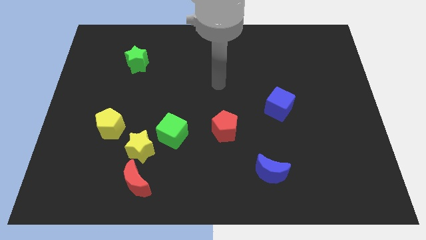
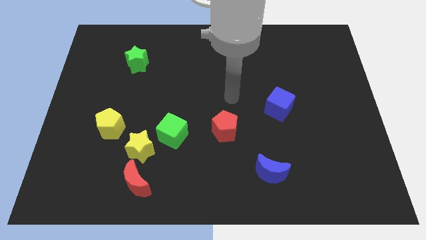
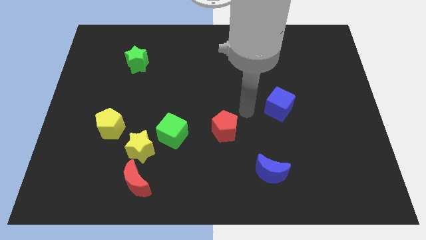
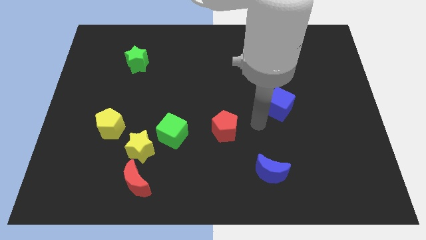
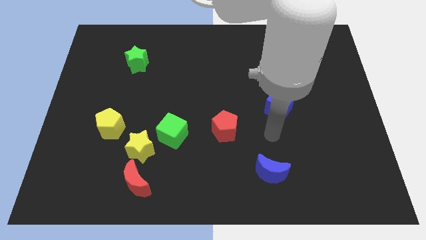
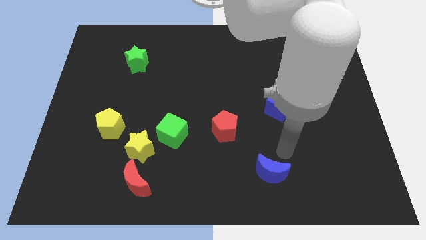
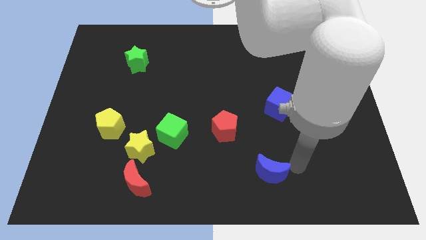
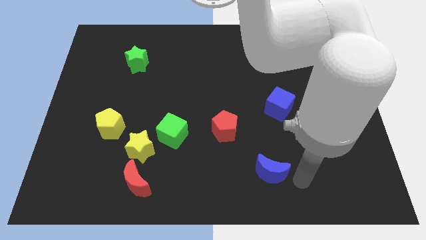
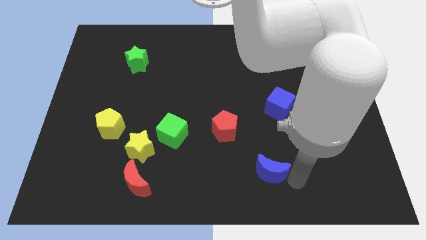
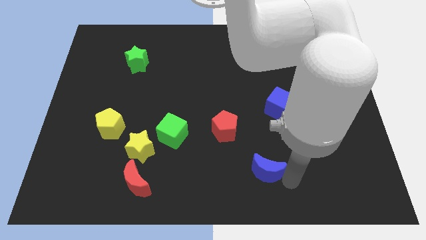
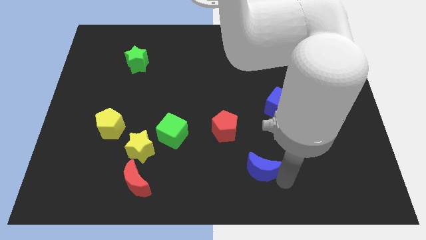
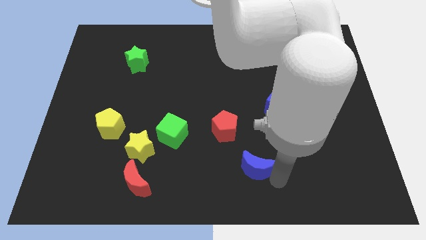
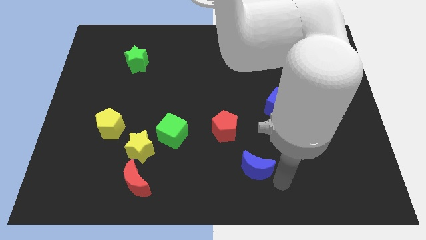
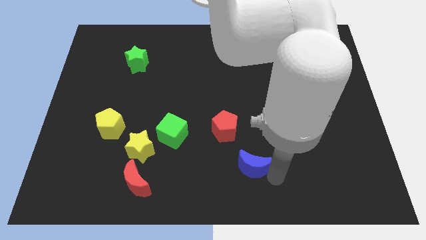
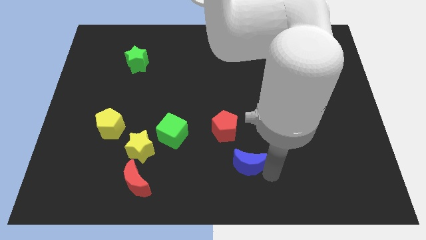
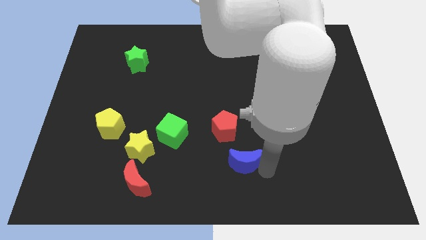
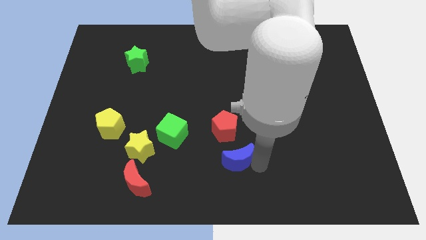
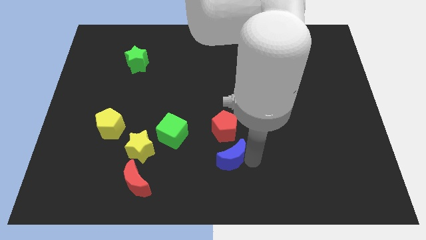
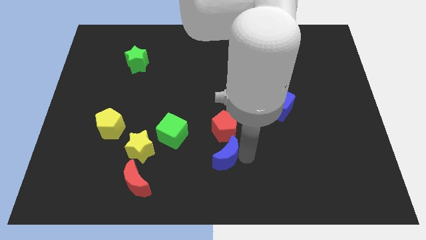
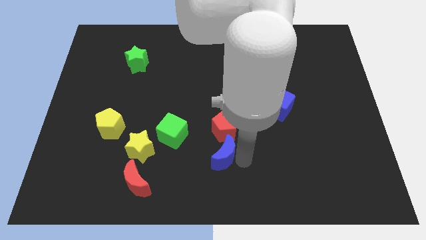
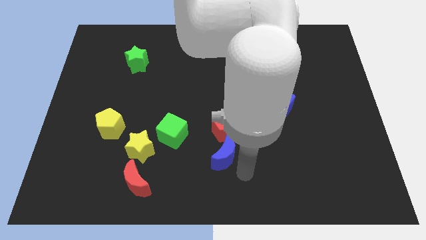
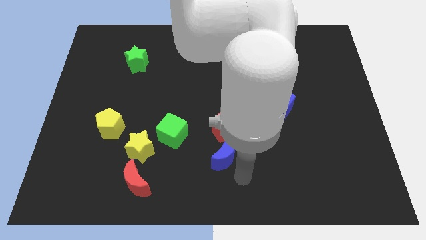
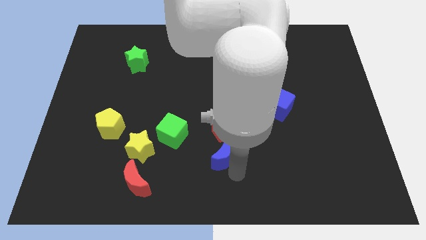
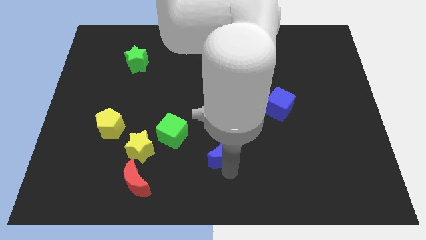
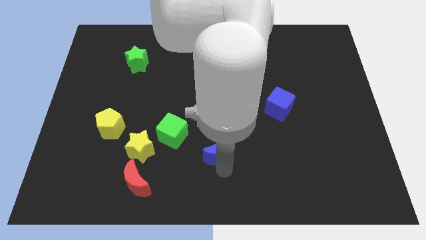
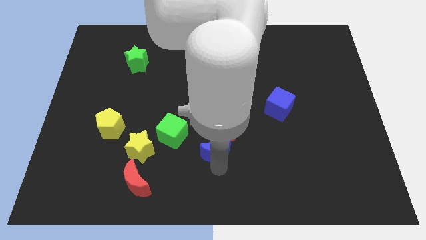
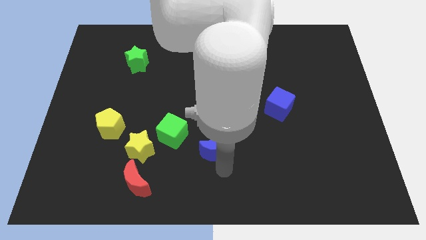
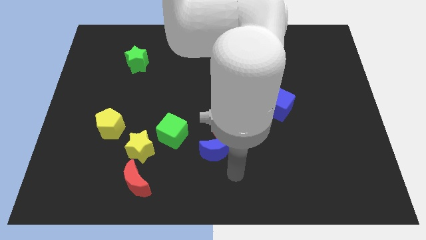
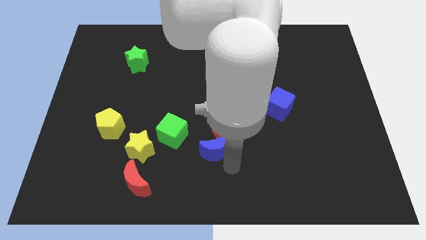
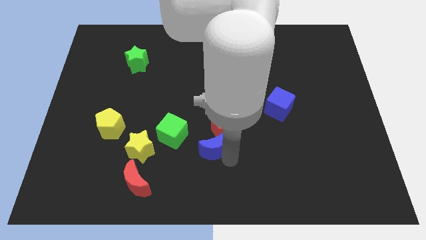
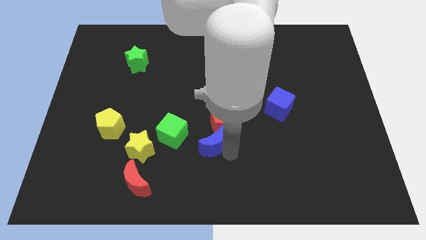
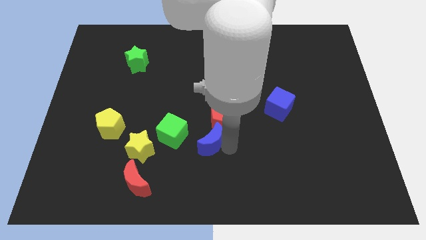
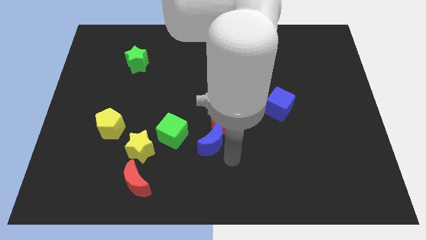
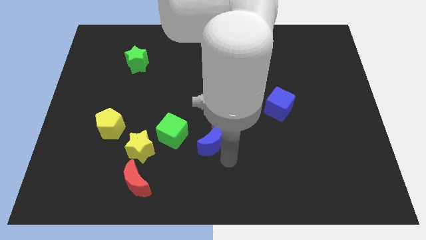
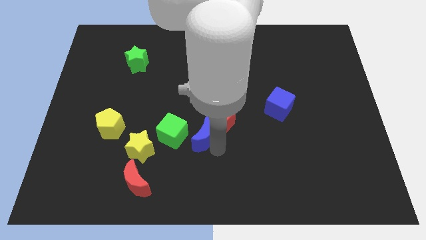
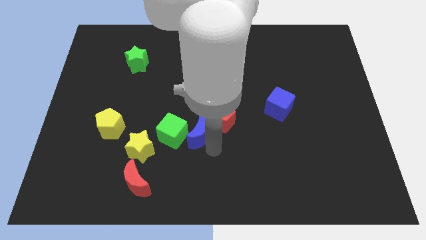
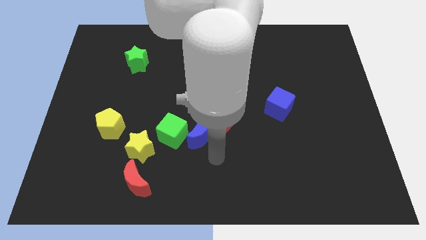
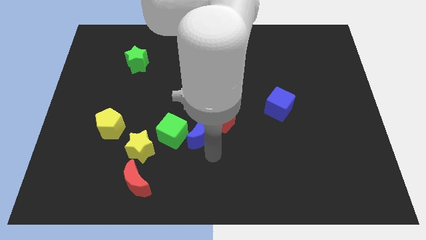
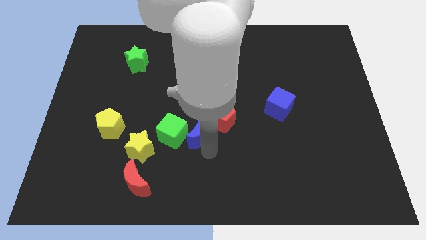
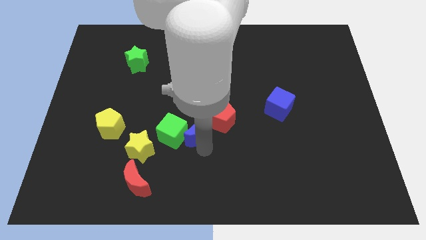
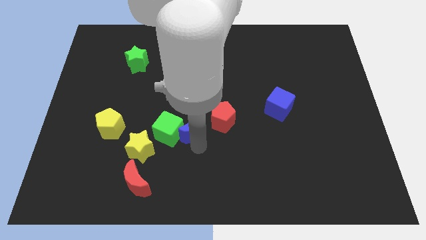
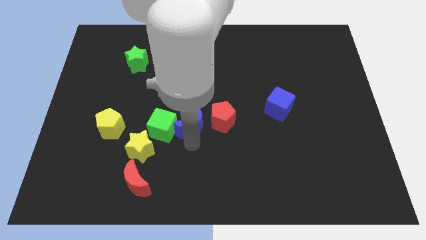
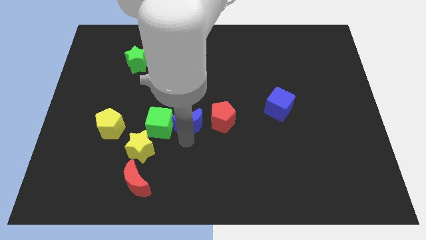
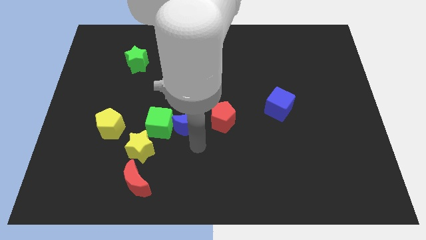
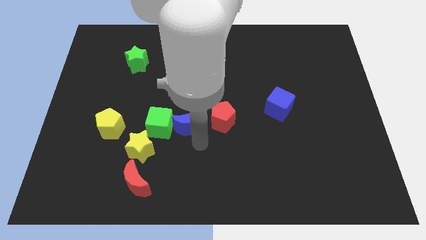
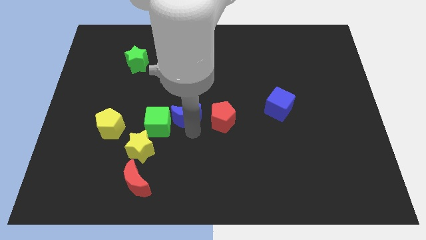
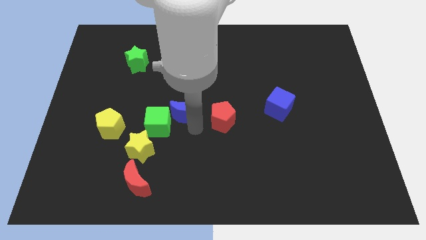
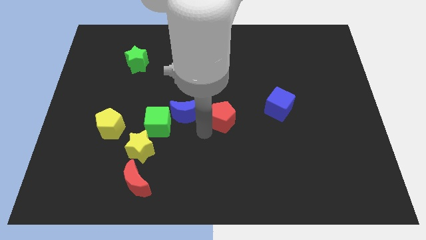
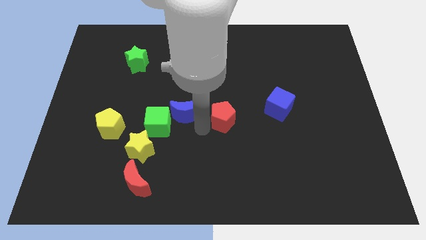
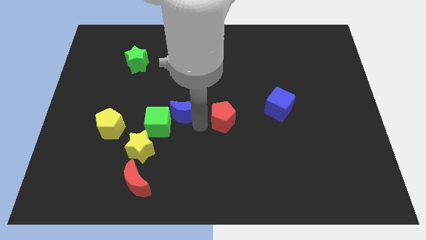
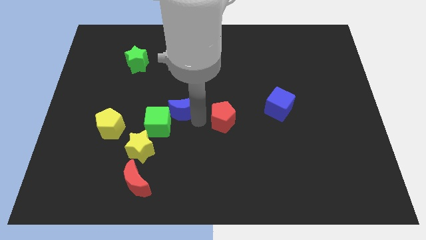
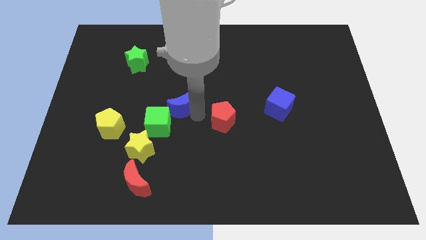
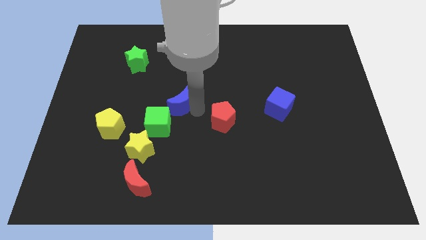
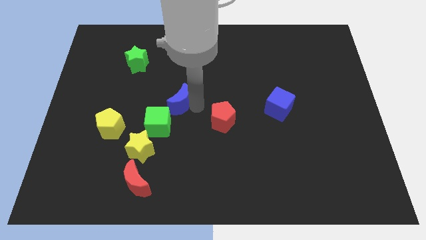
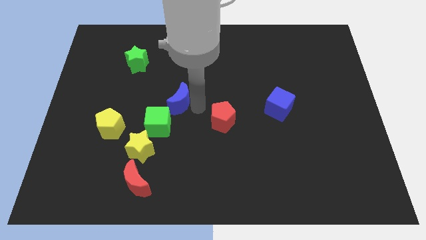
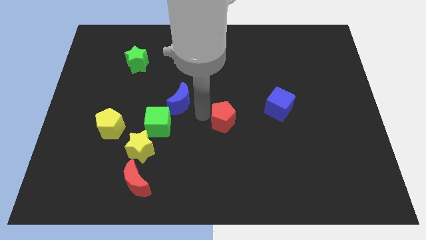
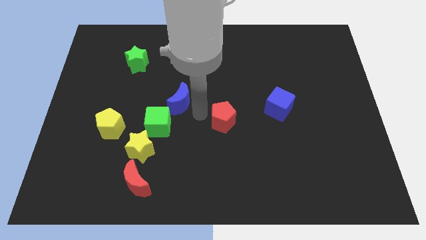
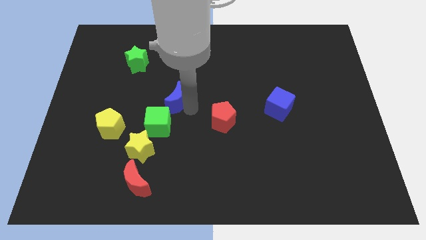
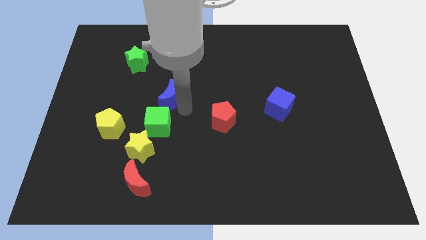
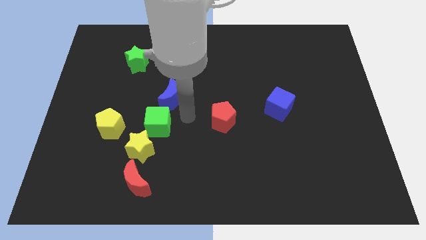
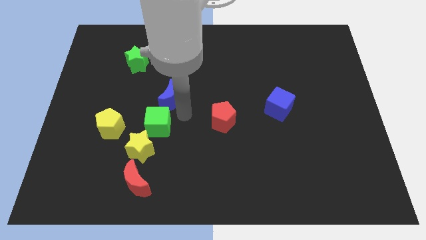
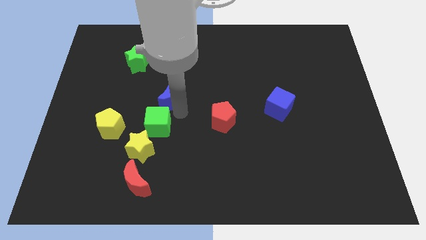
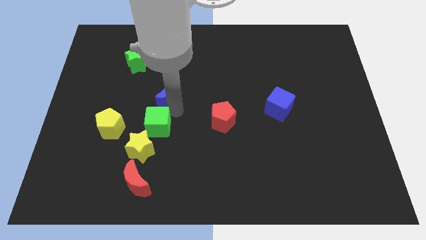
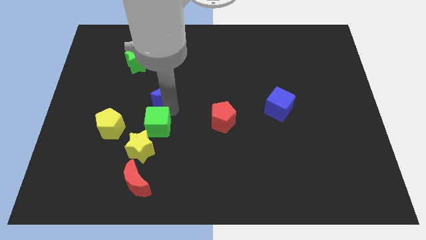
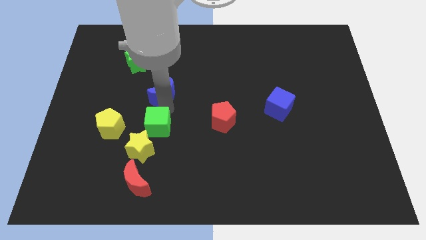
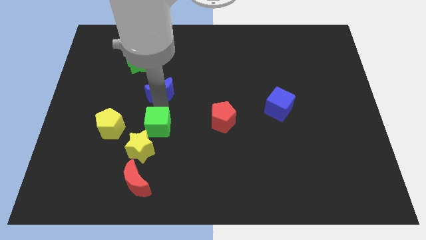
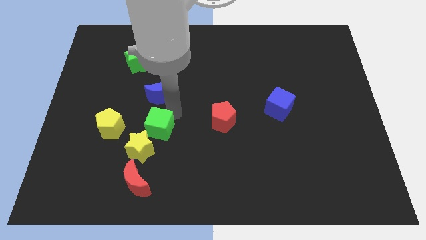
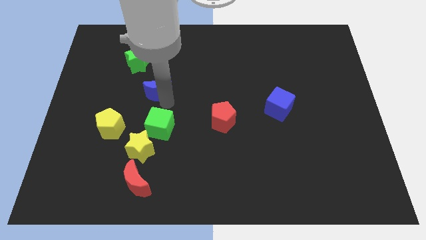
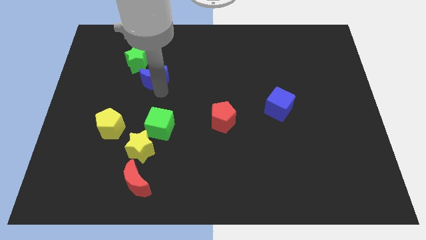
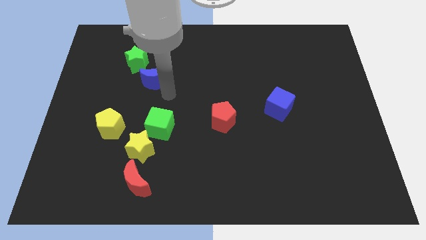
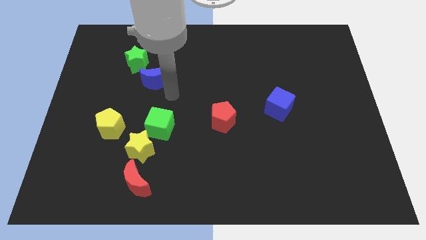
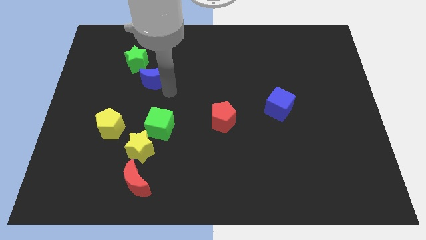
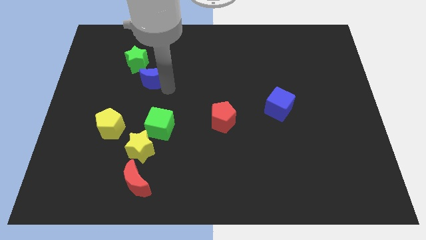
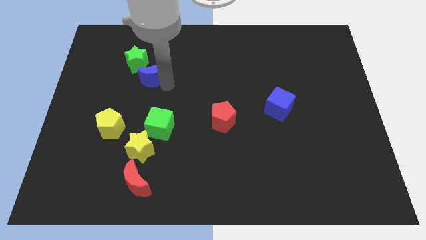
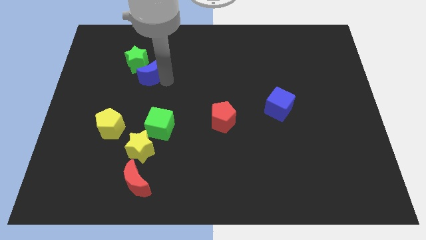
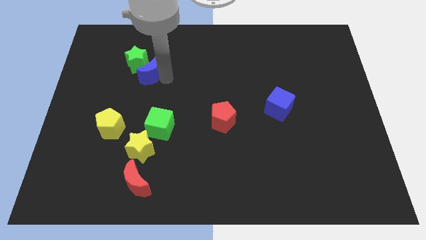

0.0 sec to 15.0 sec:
push the blue moon next to the green star

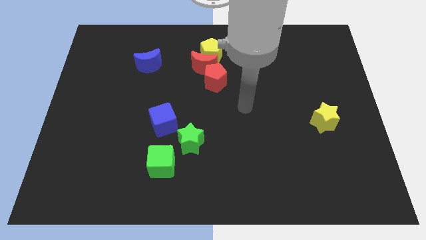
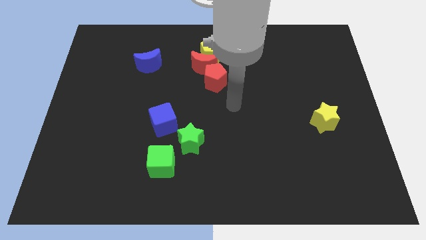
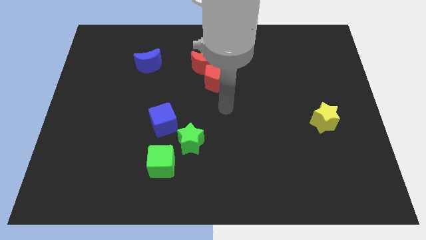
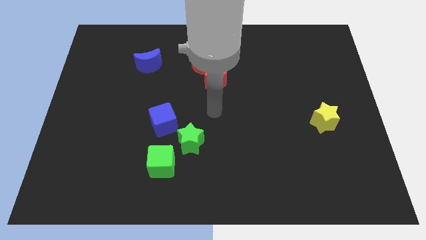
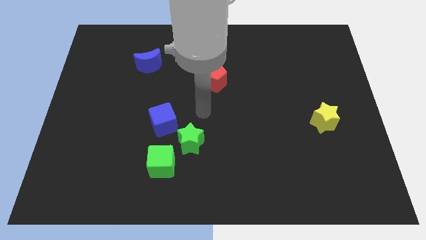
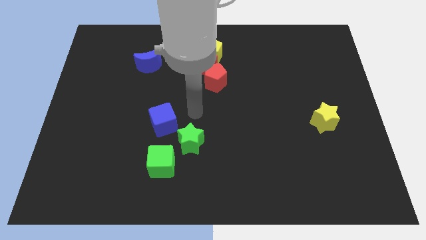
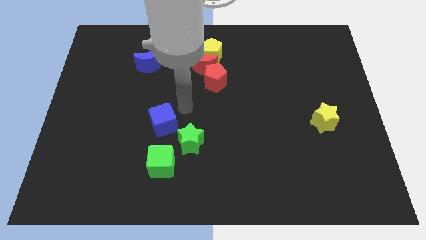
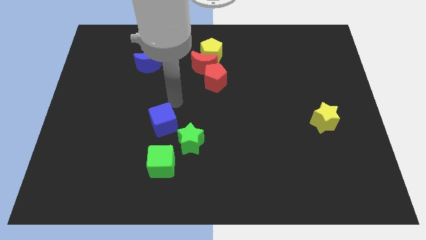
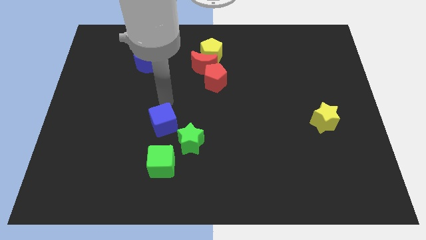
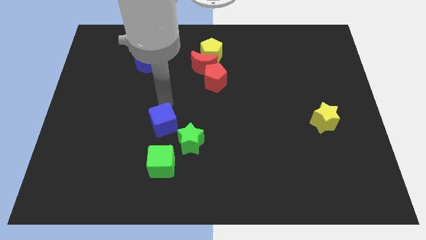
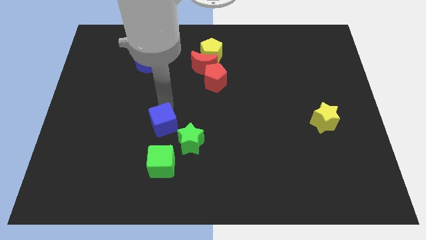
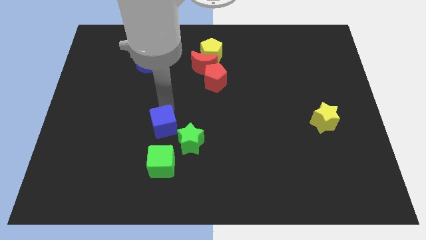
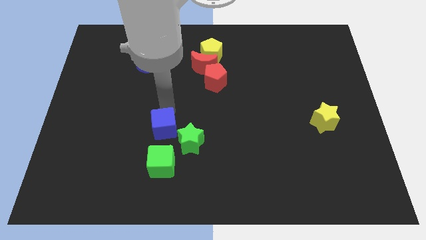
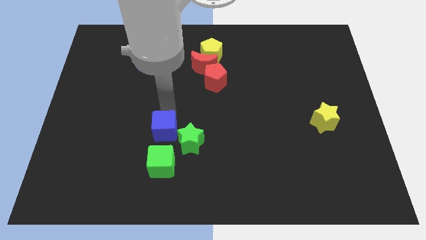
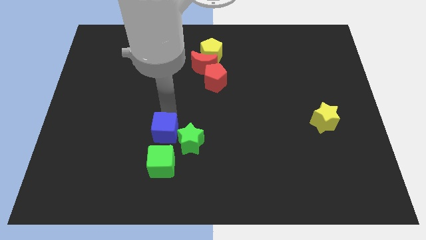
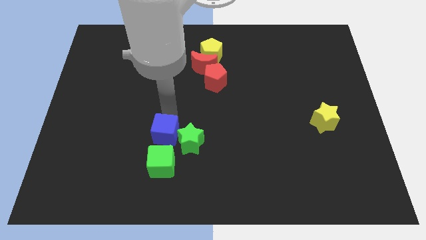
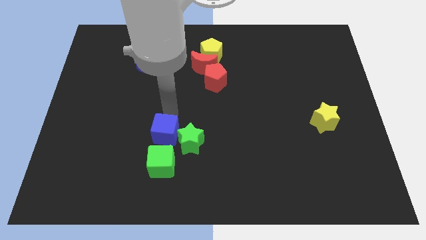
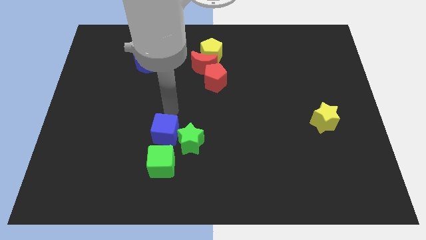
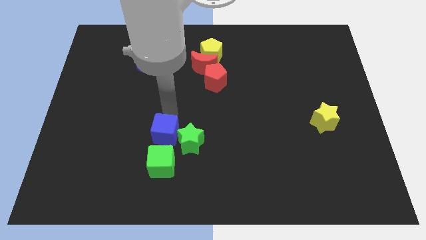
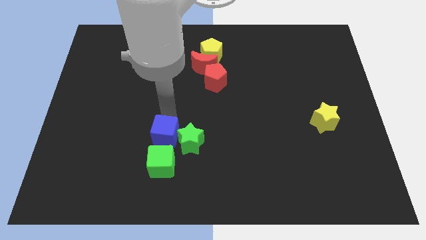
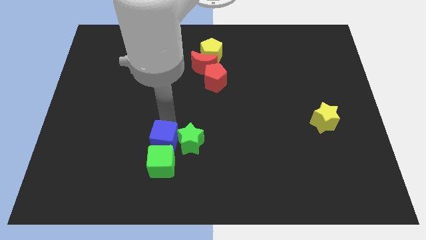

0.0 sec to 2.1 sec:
put the blue cube next to the green cube
